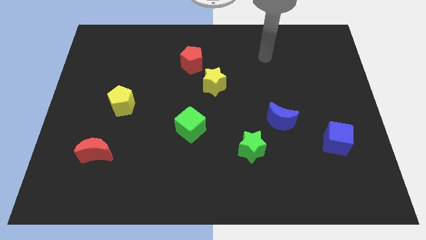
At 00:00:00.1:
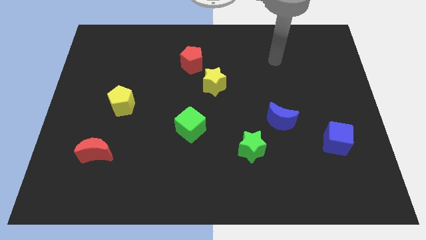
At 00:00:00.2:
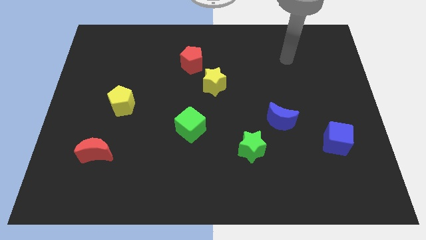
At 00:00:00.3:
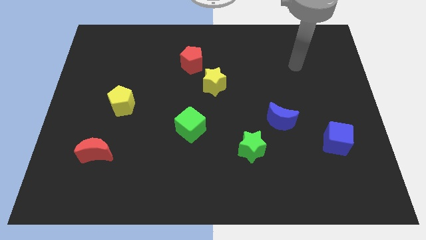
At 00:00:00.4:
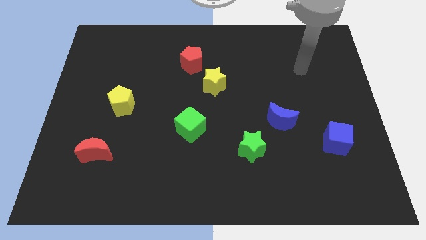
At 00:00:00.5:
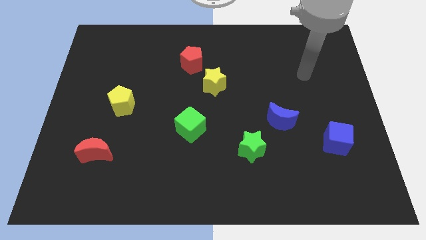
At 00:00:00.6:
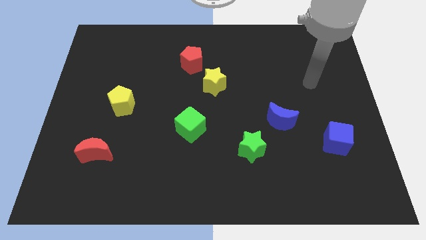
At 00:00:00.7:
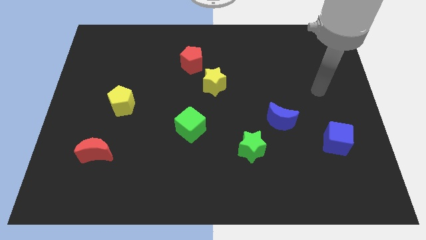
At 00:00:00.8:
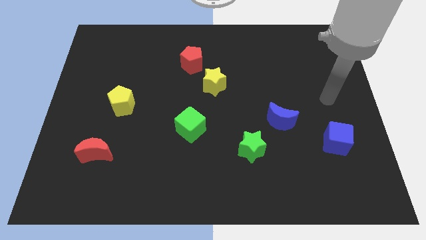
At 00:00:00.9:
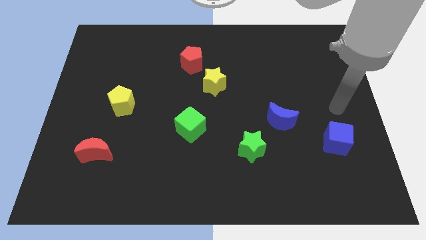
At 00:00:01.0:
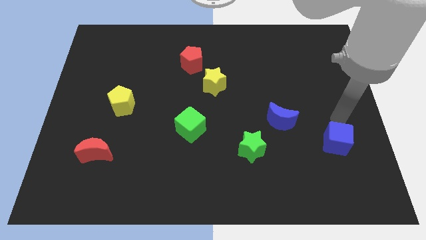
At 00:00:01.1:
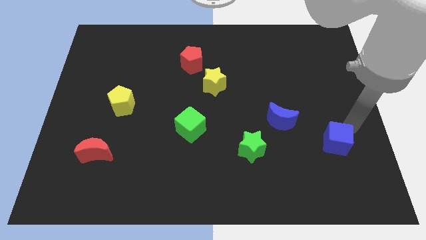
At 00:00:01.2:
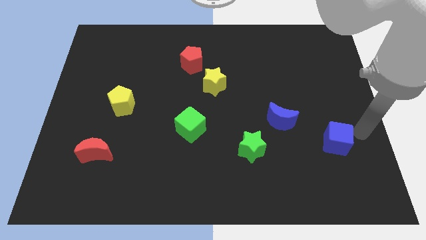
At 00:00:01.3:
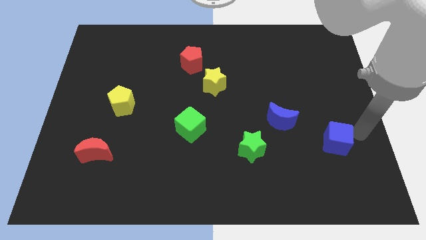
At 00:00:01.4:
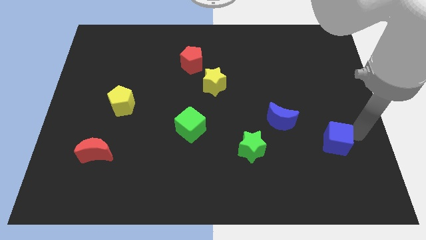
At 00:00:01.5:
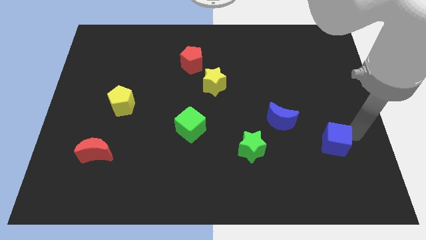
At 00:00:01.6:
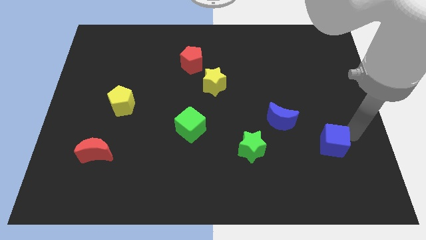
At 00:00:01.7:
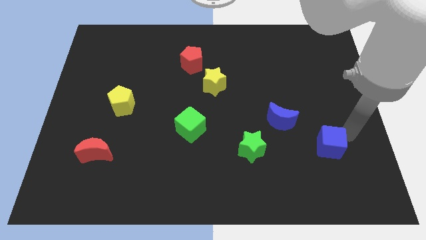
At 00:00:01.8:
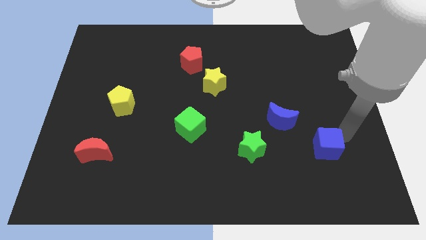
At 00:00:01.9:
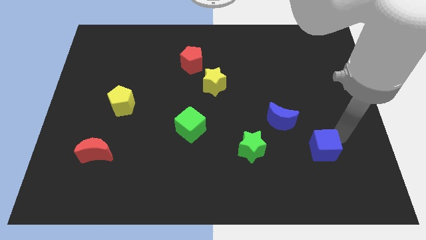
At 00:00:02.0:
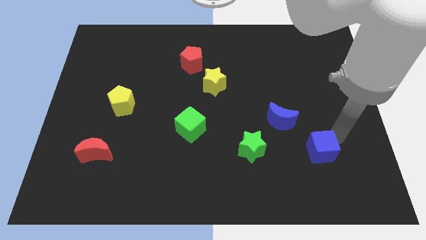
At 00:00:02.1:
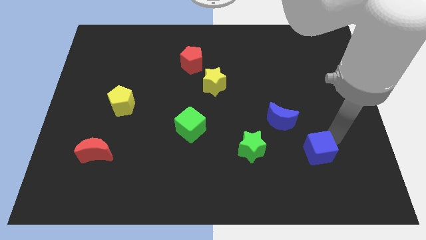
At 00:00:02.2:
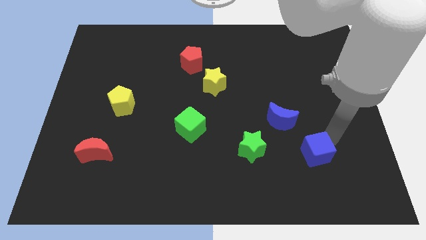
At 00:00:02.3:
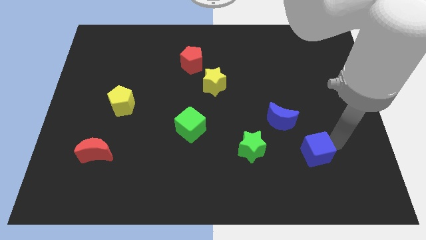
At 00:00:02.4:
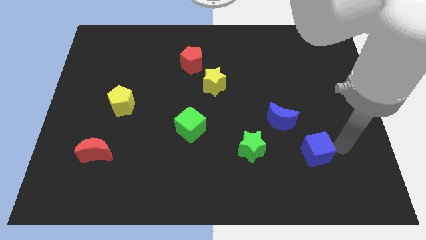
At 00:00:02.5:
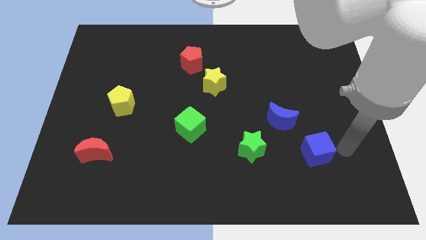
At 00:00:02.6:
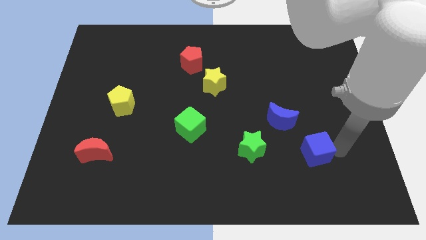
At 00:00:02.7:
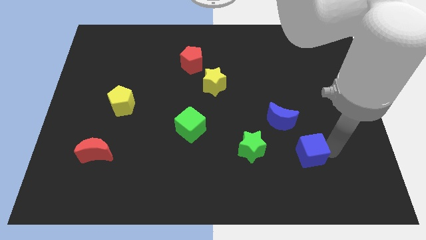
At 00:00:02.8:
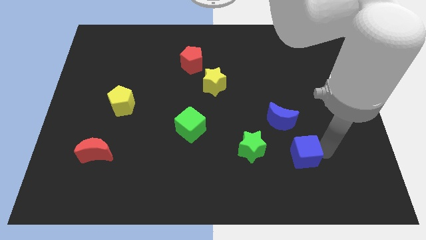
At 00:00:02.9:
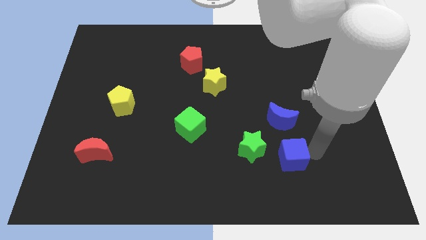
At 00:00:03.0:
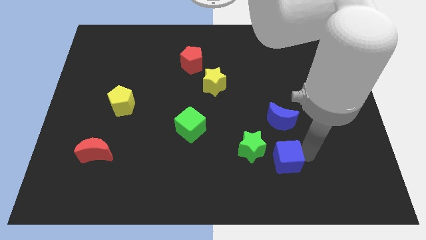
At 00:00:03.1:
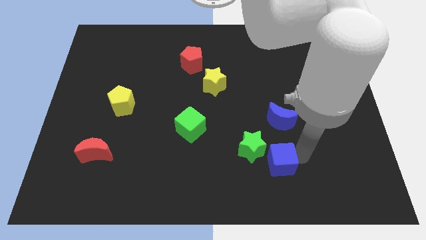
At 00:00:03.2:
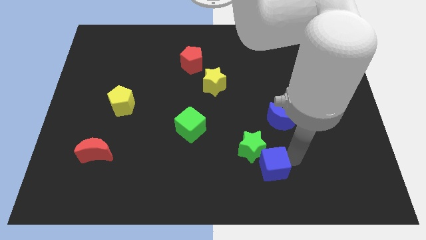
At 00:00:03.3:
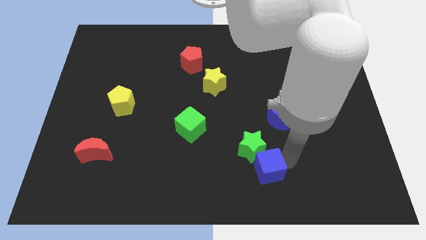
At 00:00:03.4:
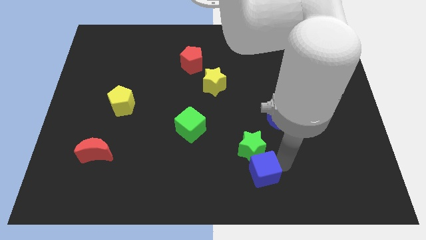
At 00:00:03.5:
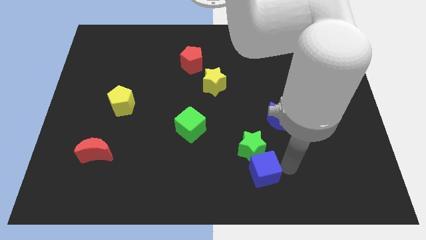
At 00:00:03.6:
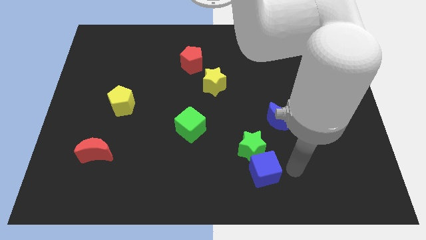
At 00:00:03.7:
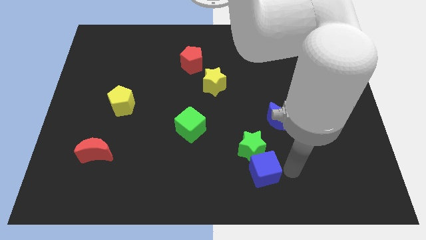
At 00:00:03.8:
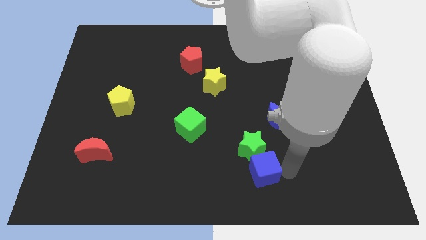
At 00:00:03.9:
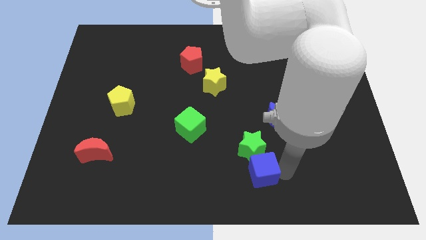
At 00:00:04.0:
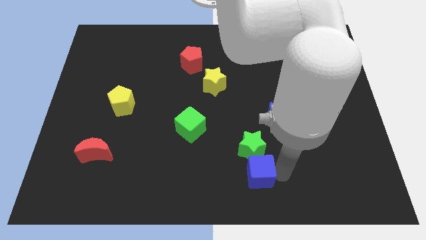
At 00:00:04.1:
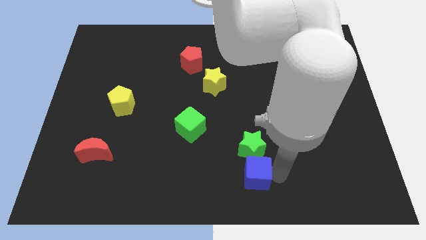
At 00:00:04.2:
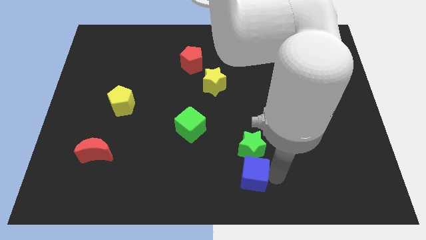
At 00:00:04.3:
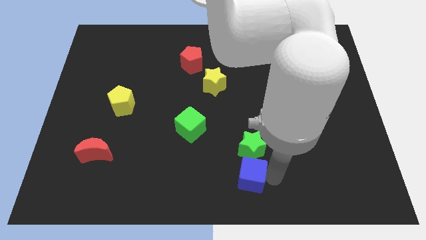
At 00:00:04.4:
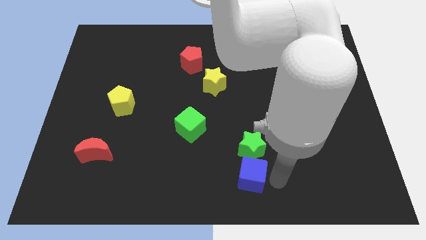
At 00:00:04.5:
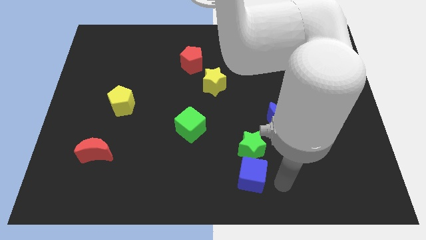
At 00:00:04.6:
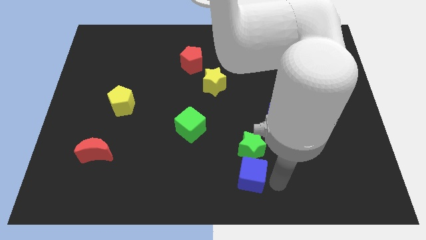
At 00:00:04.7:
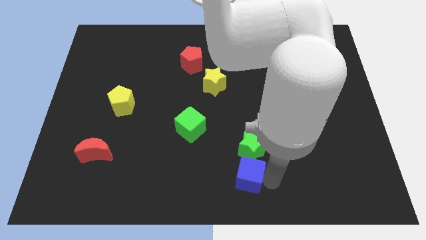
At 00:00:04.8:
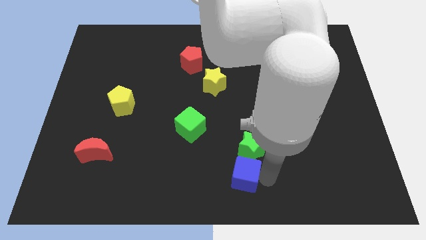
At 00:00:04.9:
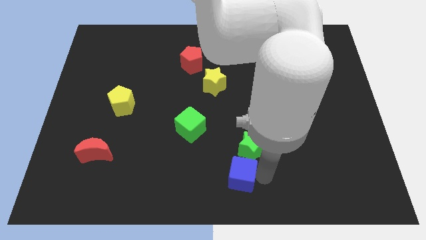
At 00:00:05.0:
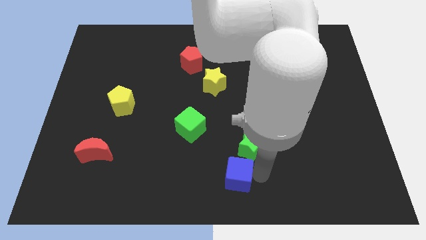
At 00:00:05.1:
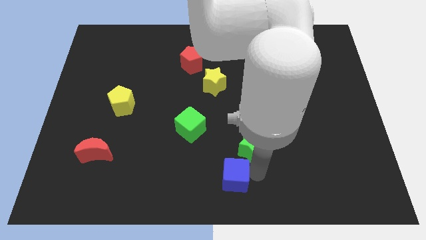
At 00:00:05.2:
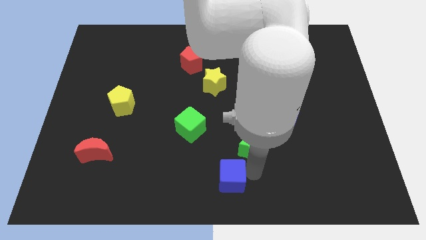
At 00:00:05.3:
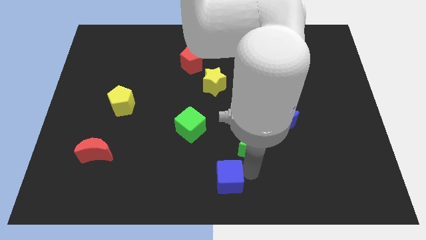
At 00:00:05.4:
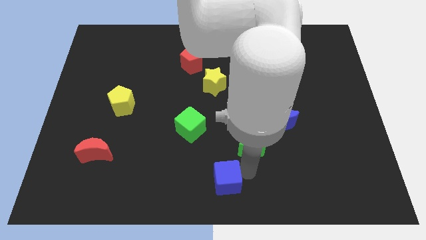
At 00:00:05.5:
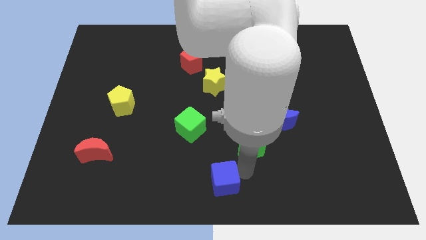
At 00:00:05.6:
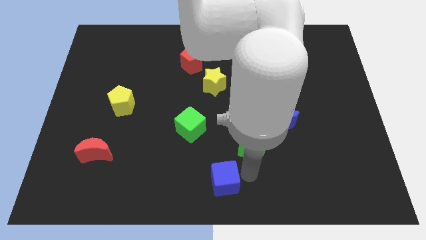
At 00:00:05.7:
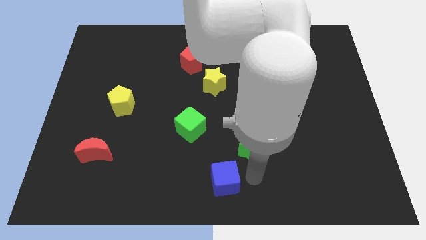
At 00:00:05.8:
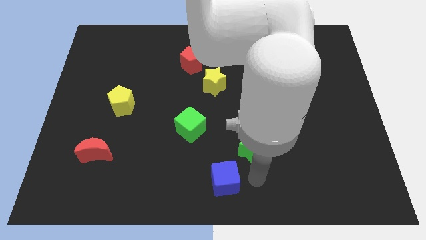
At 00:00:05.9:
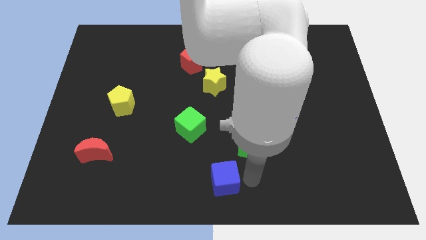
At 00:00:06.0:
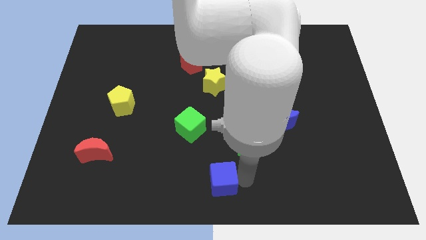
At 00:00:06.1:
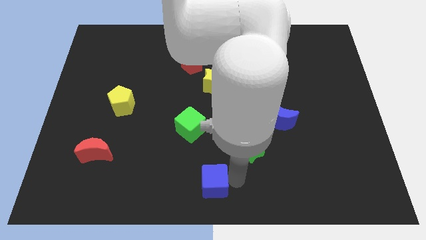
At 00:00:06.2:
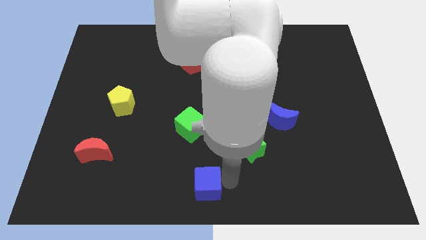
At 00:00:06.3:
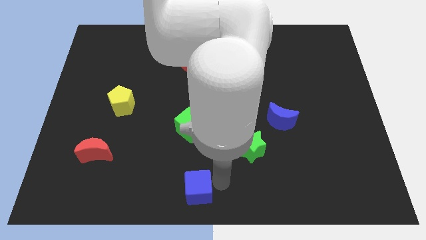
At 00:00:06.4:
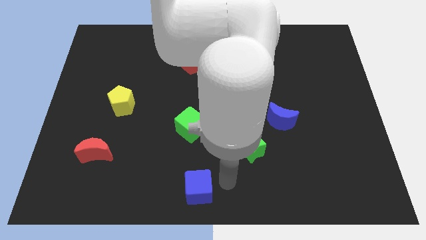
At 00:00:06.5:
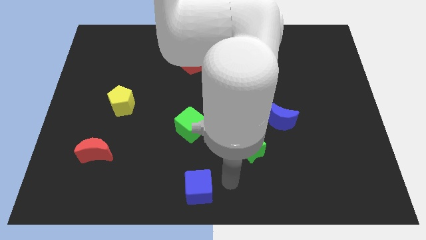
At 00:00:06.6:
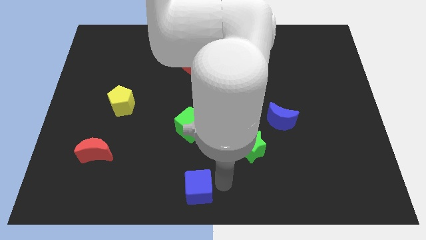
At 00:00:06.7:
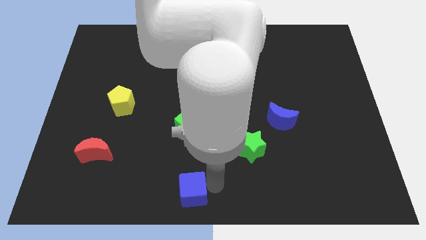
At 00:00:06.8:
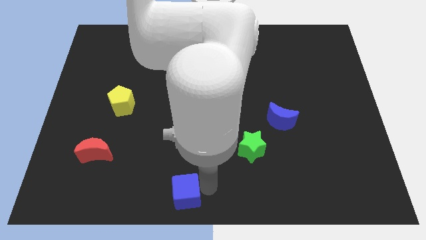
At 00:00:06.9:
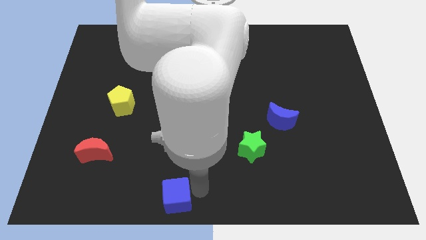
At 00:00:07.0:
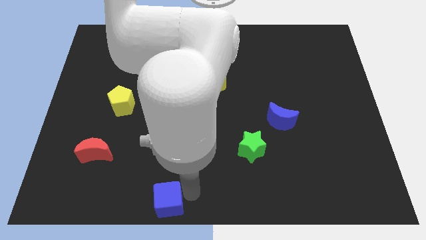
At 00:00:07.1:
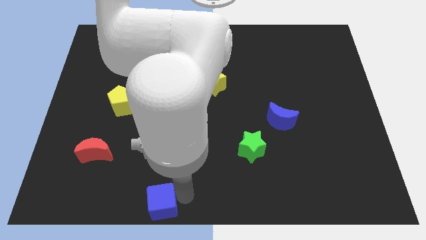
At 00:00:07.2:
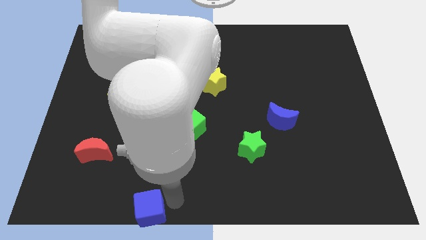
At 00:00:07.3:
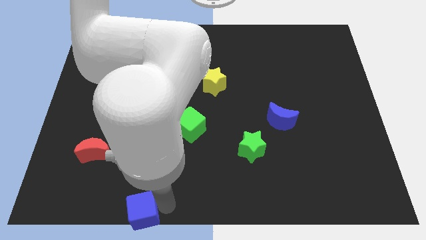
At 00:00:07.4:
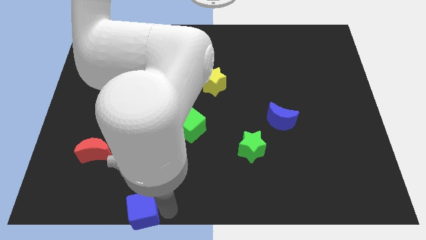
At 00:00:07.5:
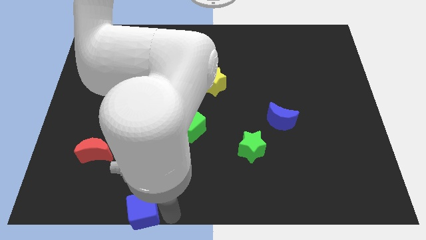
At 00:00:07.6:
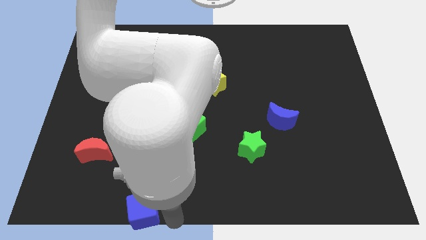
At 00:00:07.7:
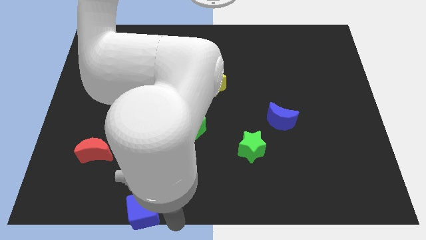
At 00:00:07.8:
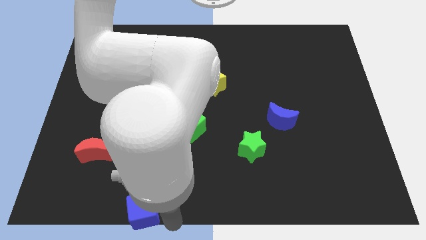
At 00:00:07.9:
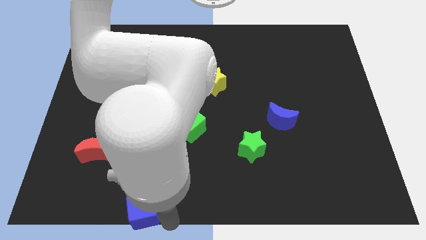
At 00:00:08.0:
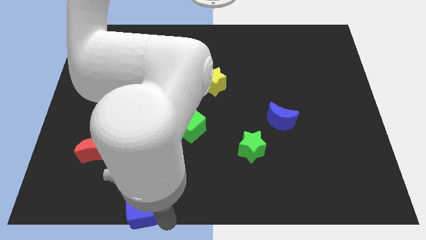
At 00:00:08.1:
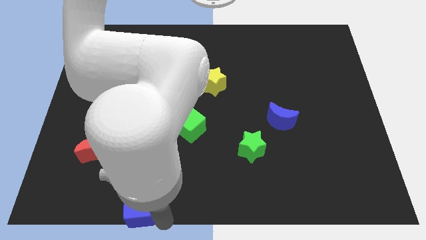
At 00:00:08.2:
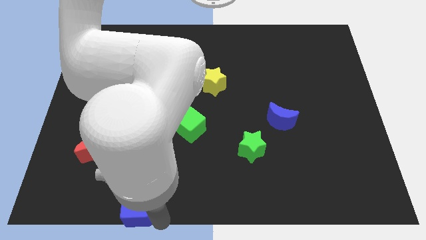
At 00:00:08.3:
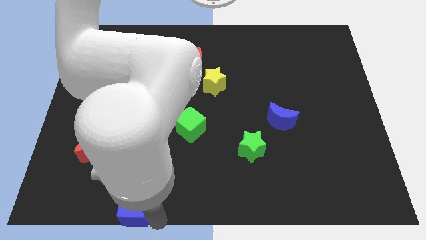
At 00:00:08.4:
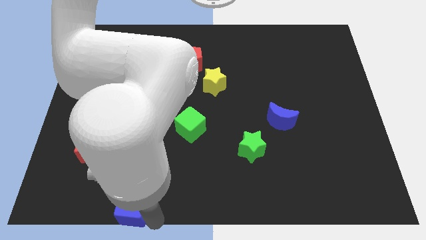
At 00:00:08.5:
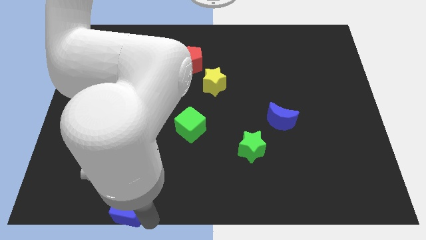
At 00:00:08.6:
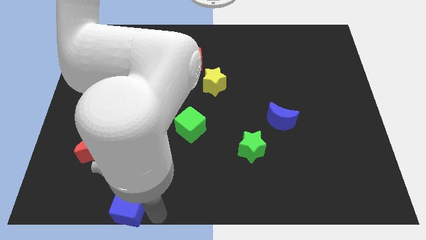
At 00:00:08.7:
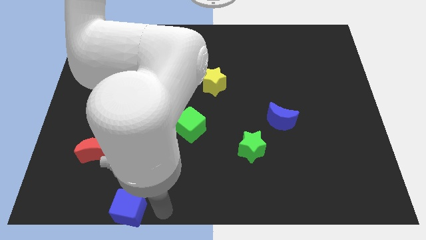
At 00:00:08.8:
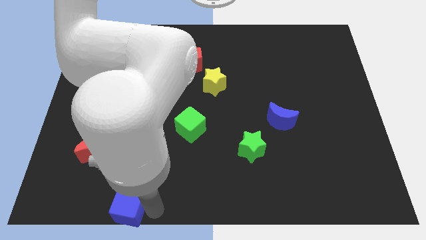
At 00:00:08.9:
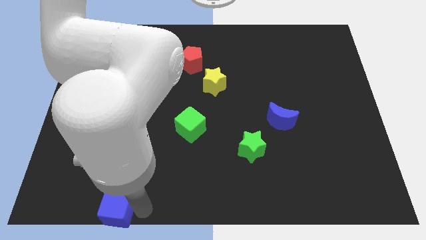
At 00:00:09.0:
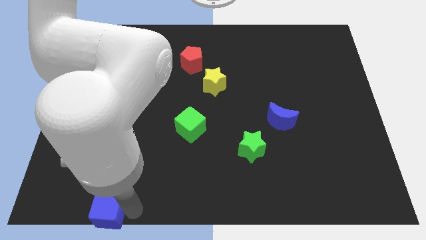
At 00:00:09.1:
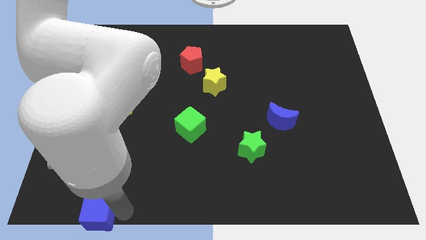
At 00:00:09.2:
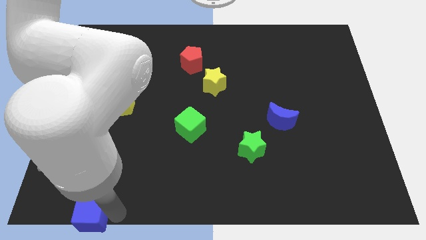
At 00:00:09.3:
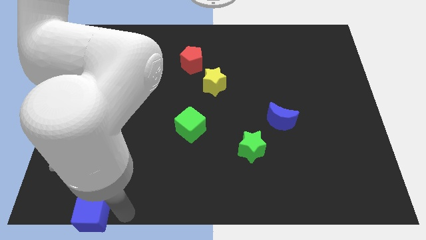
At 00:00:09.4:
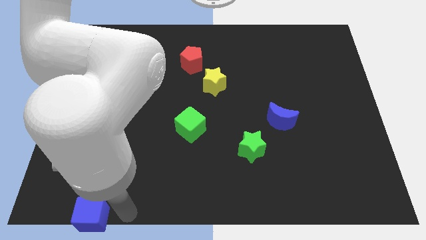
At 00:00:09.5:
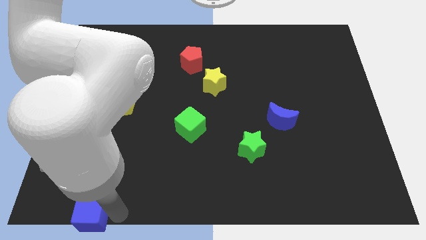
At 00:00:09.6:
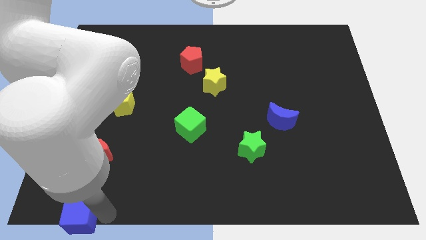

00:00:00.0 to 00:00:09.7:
slide the blue cube to the bottom left of the board
